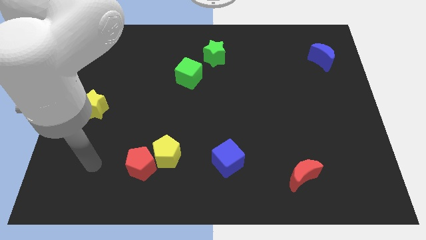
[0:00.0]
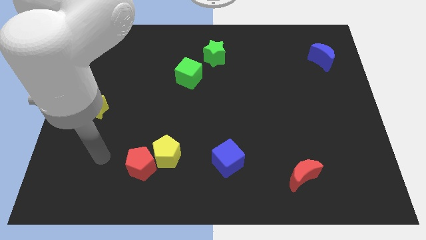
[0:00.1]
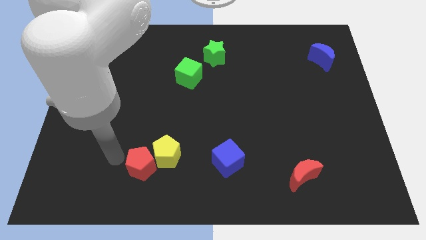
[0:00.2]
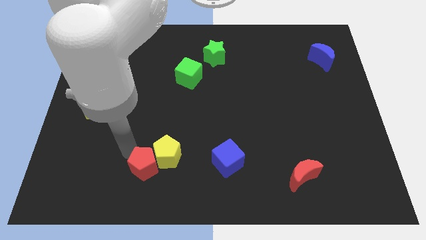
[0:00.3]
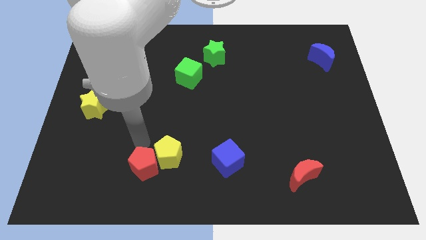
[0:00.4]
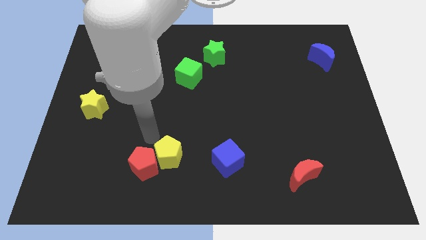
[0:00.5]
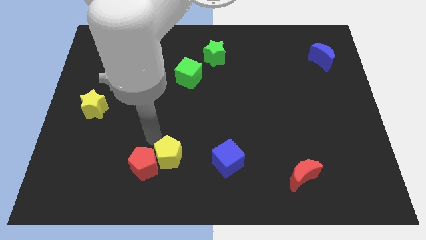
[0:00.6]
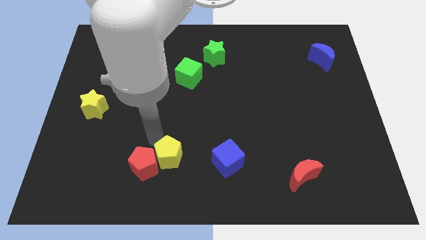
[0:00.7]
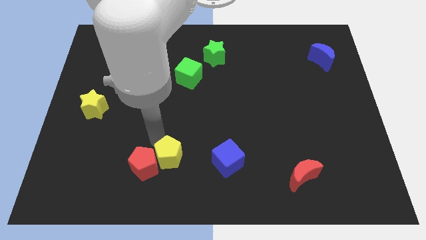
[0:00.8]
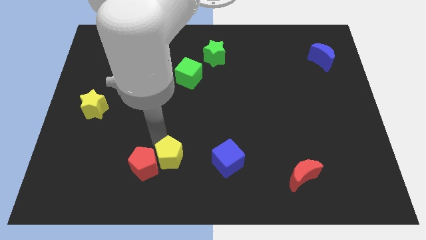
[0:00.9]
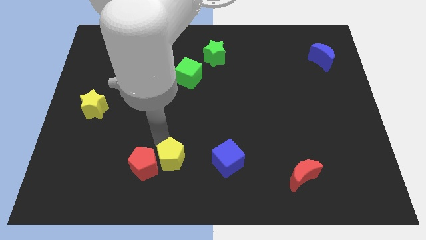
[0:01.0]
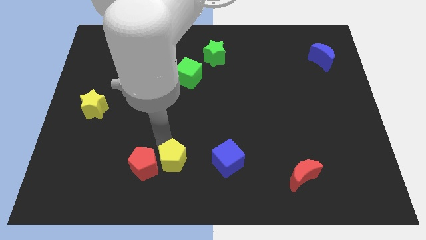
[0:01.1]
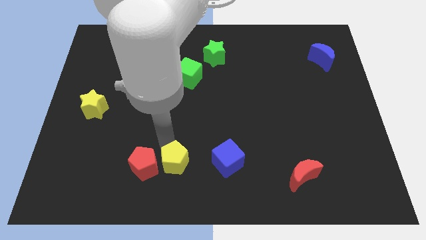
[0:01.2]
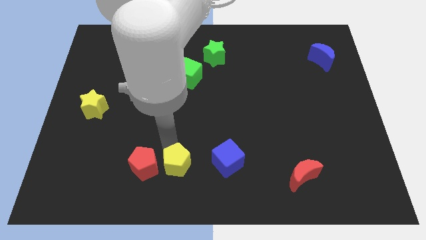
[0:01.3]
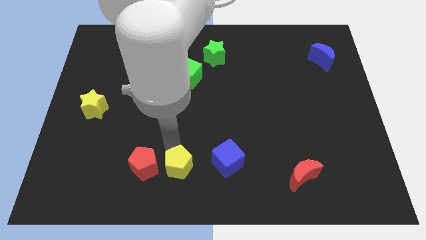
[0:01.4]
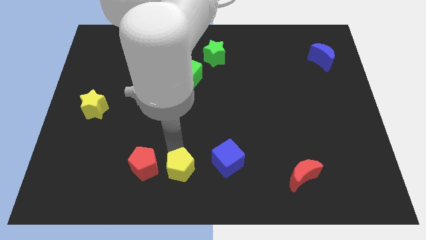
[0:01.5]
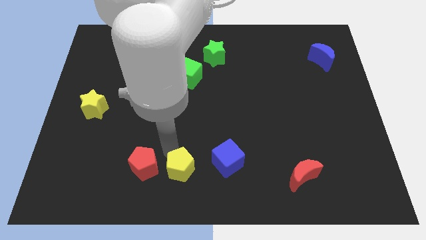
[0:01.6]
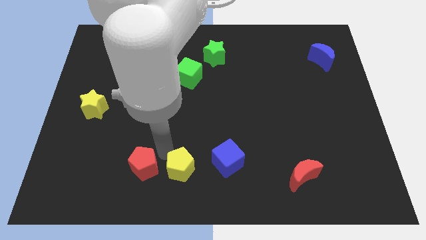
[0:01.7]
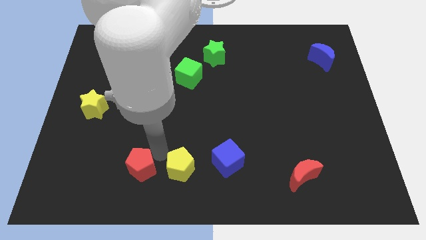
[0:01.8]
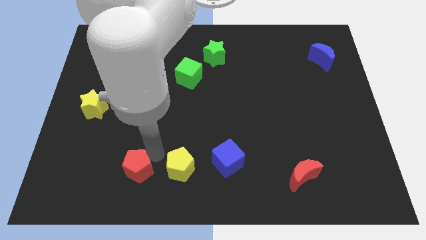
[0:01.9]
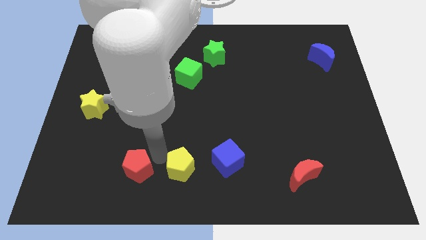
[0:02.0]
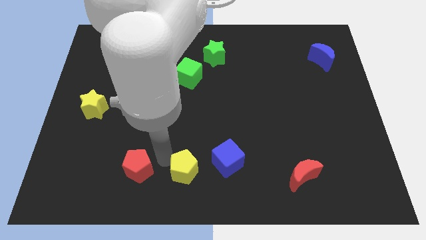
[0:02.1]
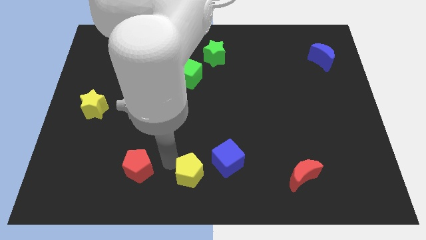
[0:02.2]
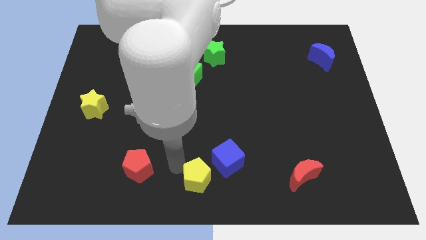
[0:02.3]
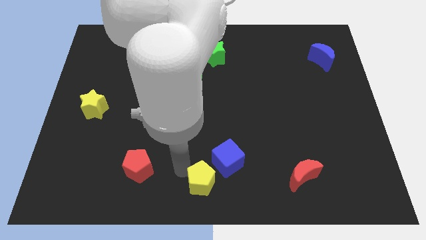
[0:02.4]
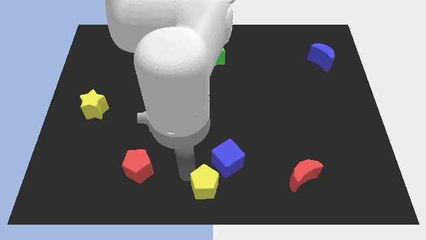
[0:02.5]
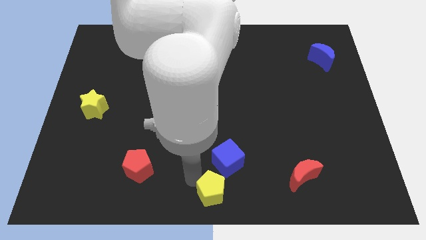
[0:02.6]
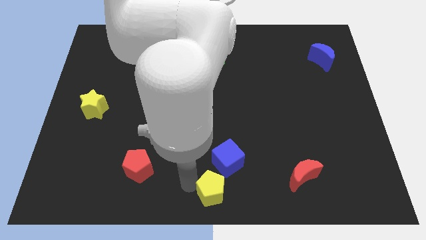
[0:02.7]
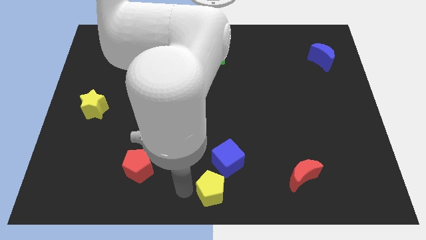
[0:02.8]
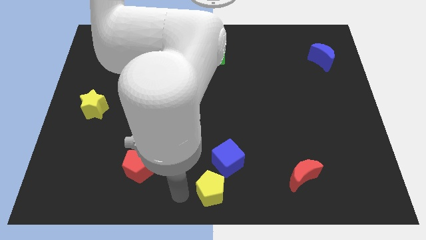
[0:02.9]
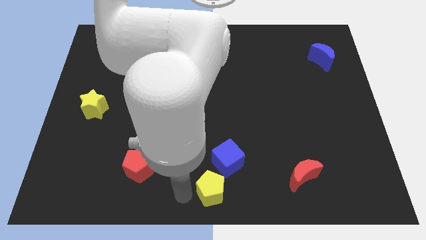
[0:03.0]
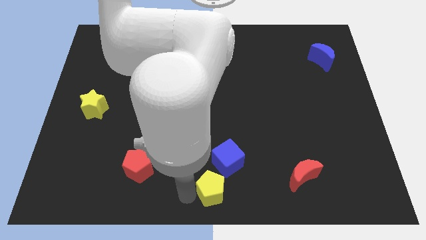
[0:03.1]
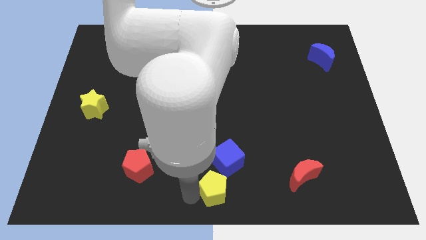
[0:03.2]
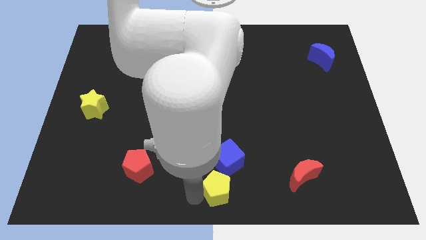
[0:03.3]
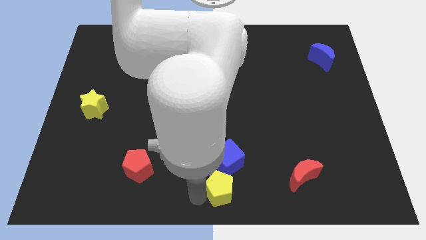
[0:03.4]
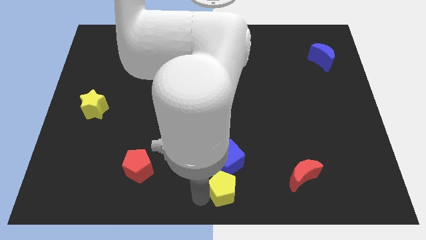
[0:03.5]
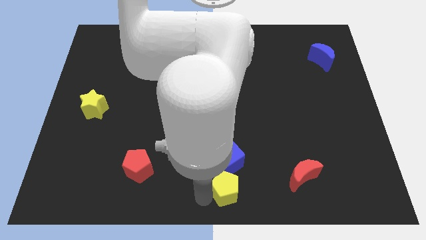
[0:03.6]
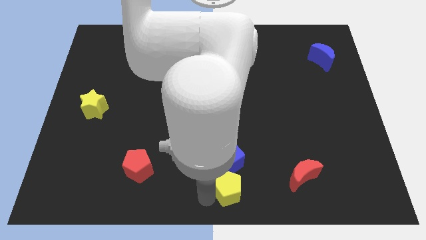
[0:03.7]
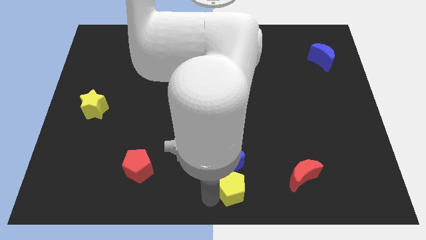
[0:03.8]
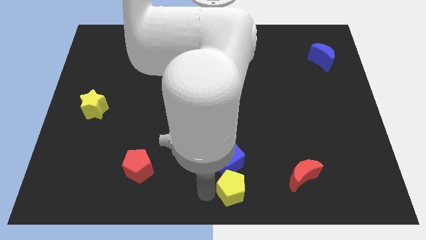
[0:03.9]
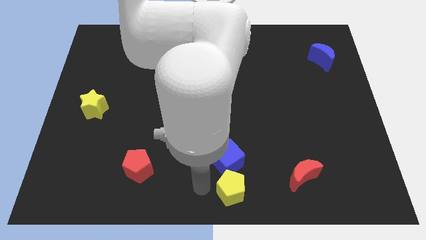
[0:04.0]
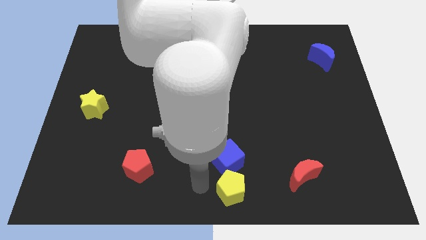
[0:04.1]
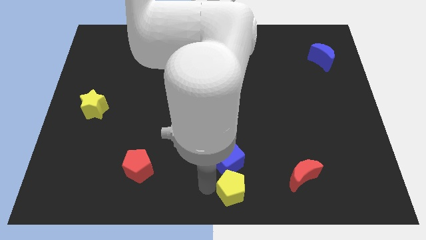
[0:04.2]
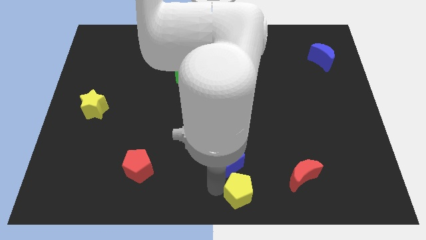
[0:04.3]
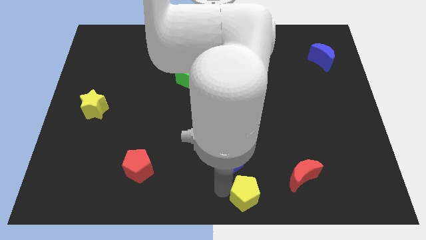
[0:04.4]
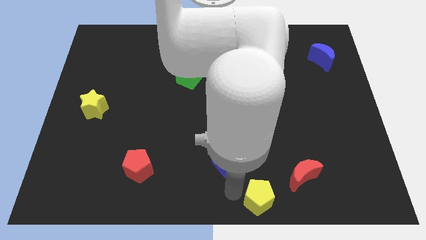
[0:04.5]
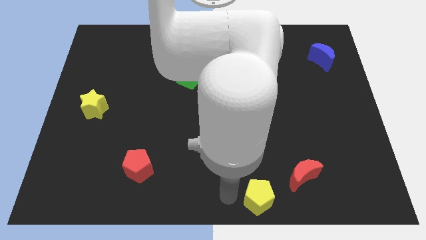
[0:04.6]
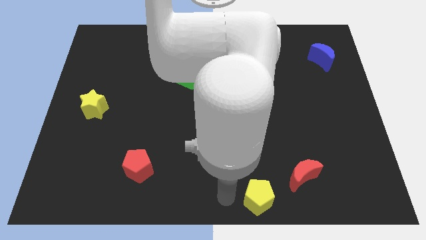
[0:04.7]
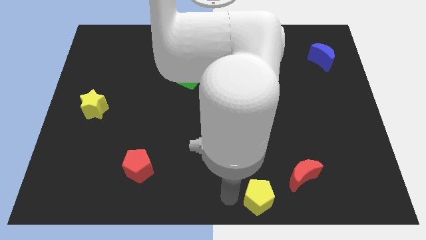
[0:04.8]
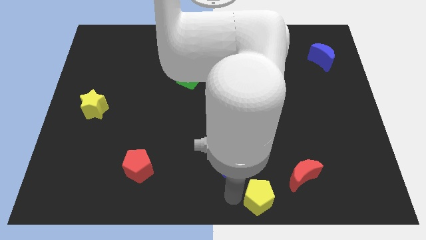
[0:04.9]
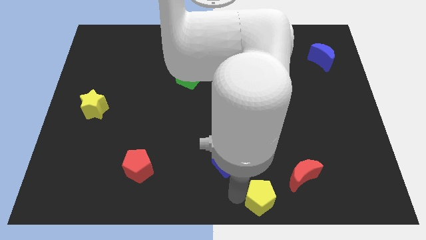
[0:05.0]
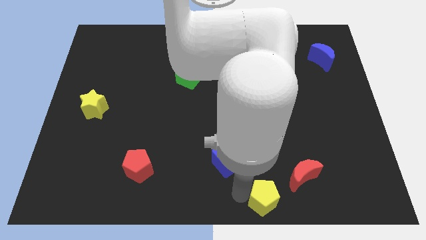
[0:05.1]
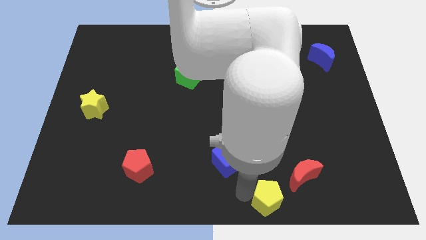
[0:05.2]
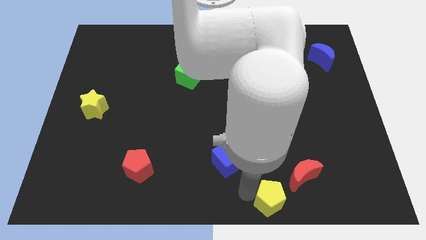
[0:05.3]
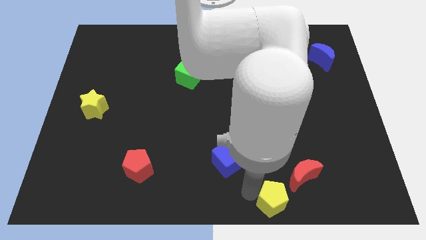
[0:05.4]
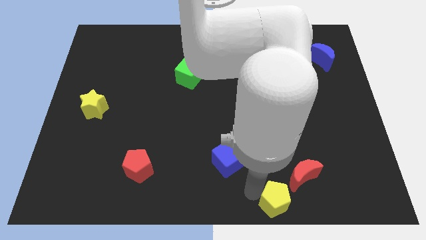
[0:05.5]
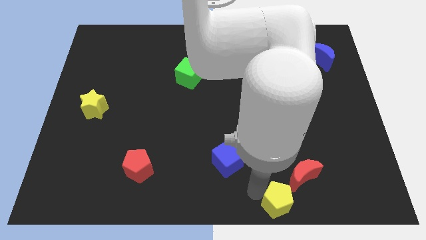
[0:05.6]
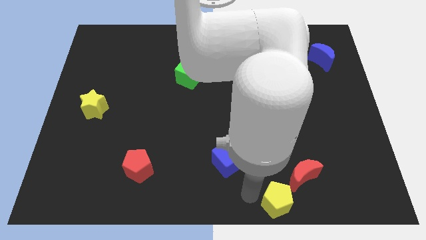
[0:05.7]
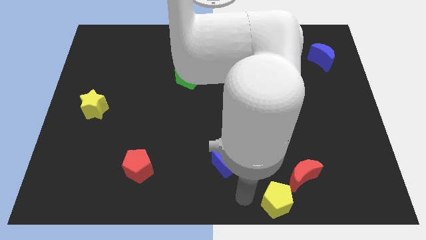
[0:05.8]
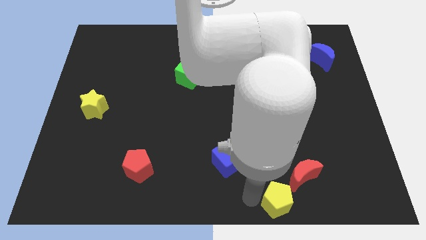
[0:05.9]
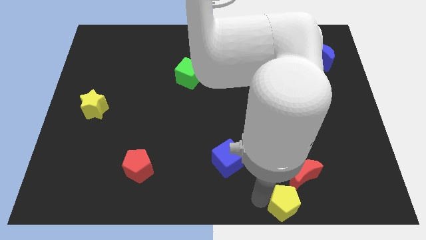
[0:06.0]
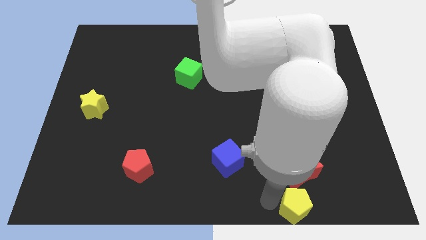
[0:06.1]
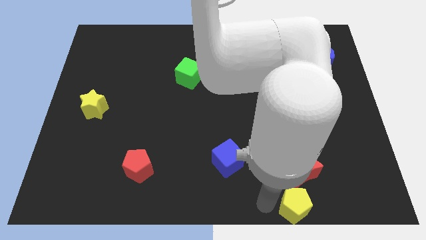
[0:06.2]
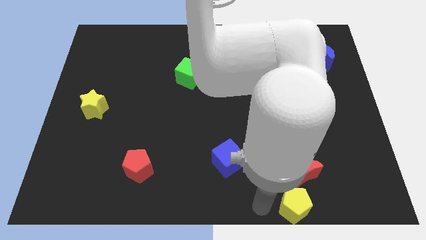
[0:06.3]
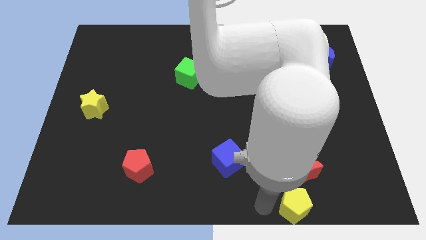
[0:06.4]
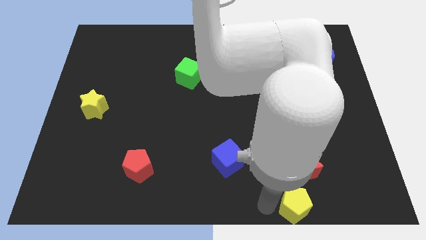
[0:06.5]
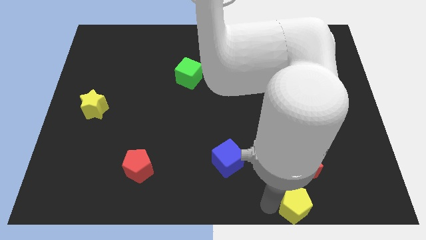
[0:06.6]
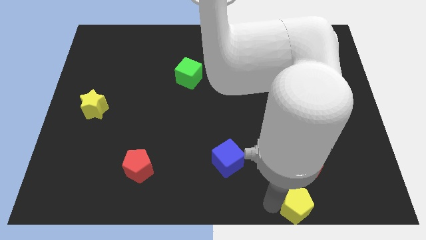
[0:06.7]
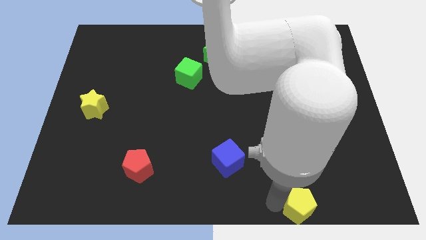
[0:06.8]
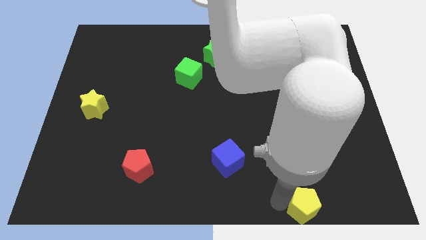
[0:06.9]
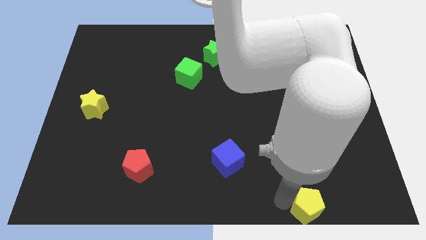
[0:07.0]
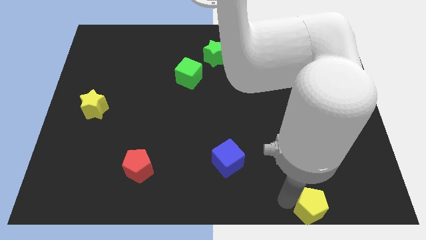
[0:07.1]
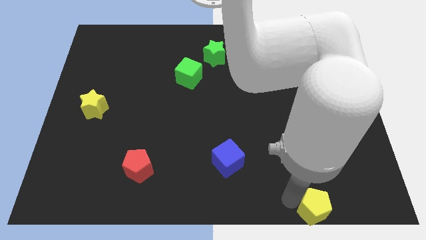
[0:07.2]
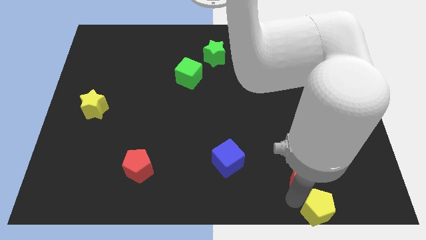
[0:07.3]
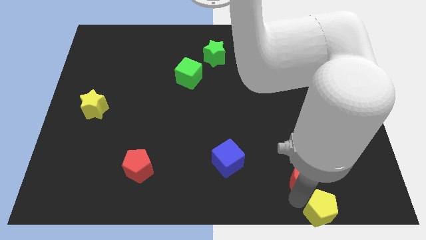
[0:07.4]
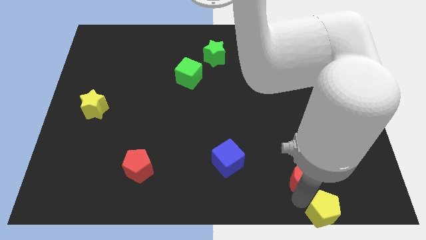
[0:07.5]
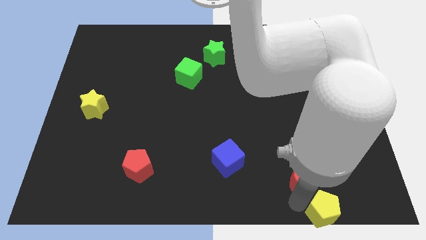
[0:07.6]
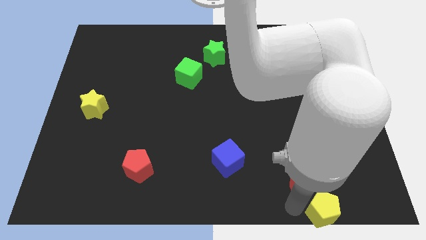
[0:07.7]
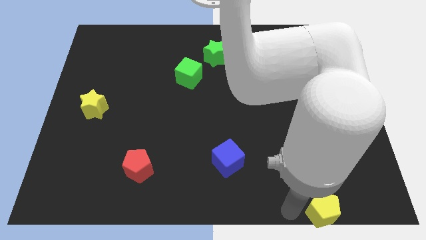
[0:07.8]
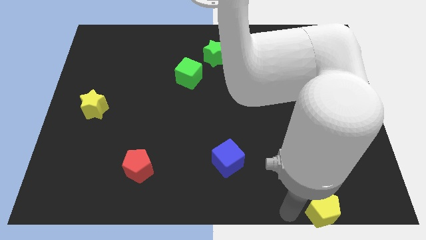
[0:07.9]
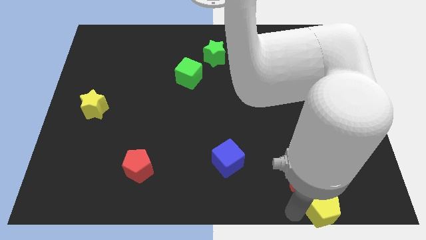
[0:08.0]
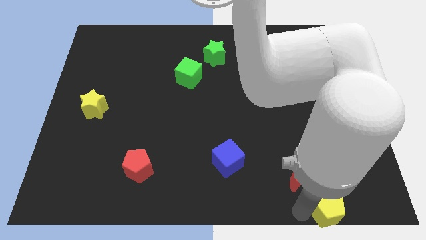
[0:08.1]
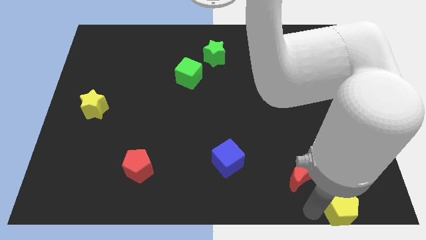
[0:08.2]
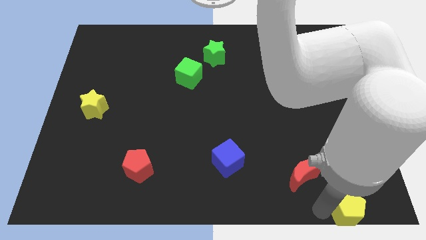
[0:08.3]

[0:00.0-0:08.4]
move the yellow pentagon to the bottom right corner
